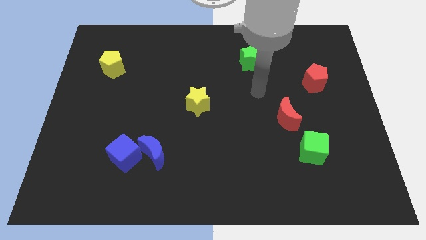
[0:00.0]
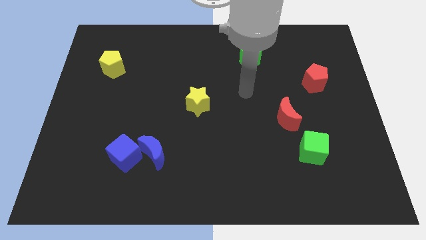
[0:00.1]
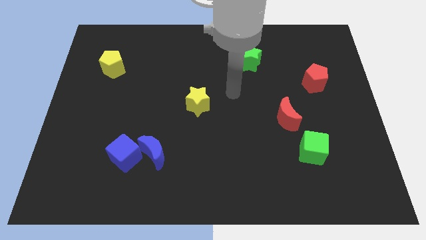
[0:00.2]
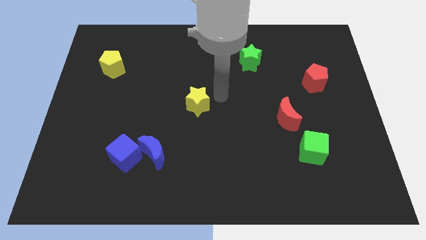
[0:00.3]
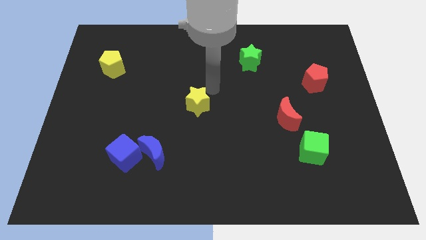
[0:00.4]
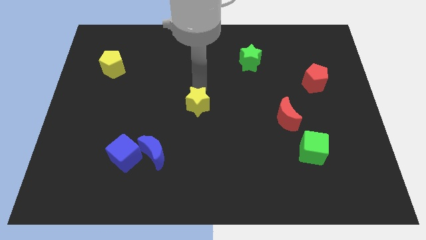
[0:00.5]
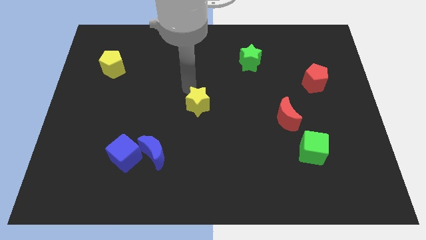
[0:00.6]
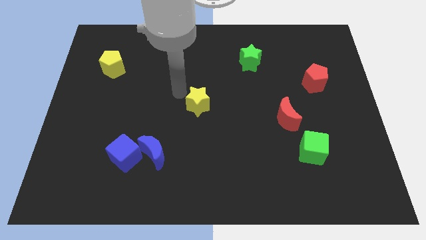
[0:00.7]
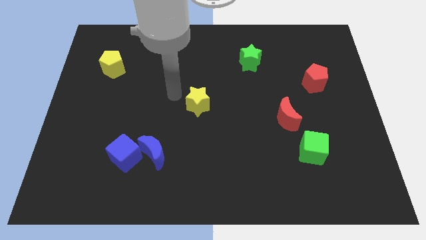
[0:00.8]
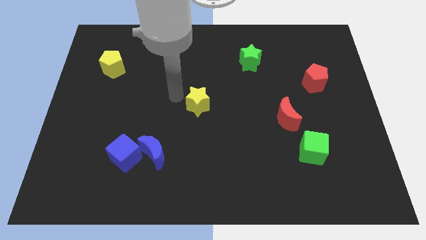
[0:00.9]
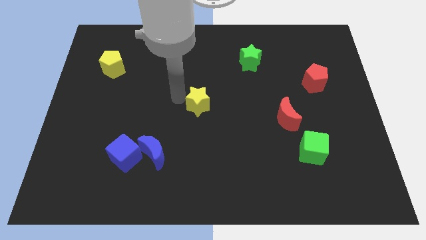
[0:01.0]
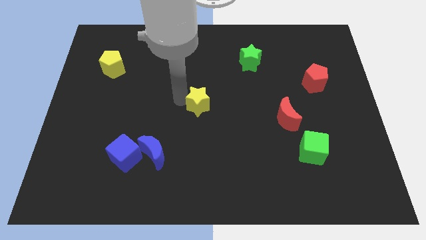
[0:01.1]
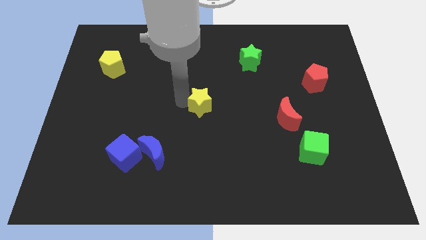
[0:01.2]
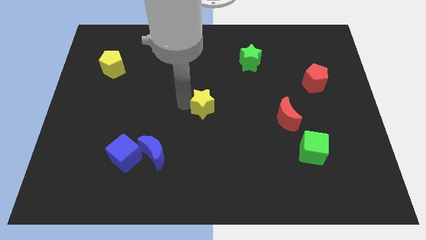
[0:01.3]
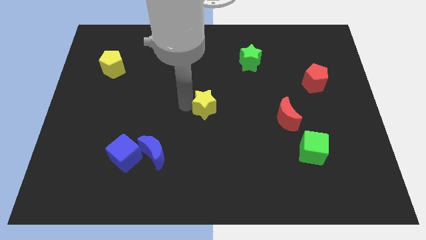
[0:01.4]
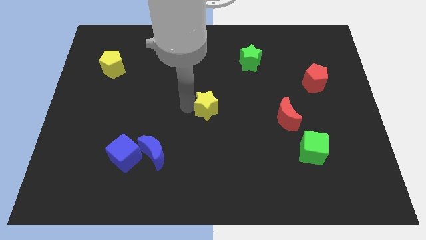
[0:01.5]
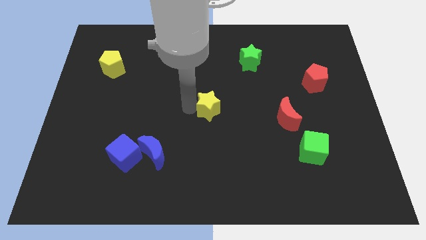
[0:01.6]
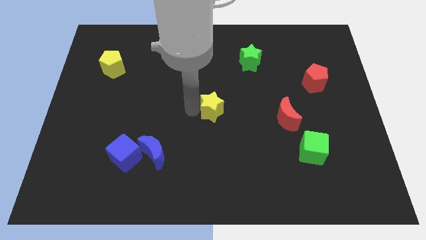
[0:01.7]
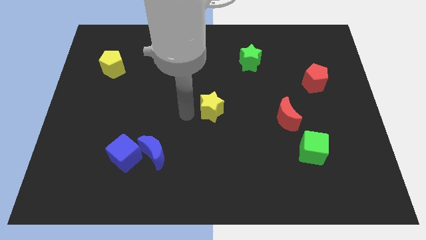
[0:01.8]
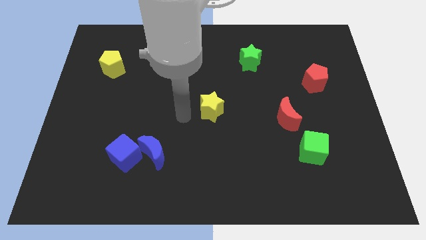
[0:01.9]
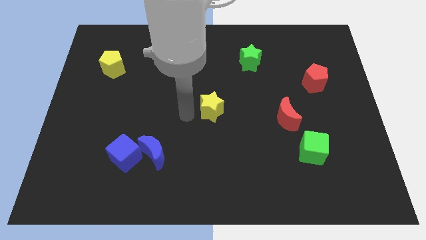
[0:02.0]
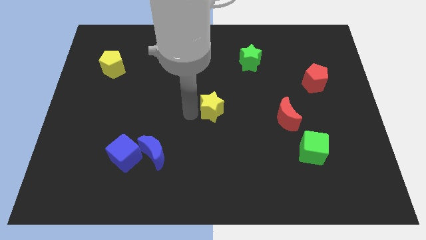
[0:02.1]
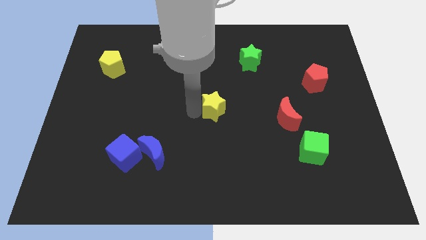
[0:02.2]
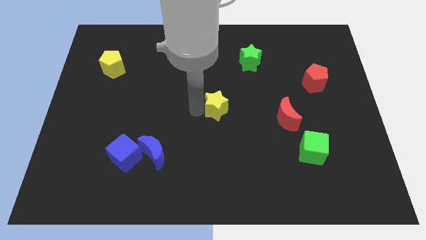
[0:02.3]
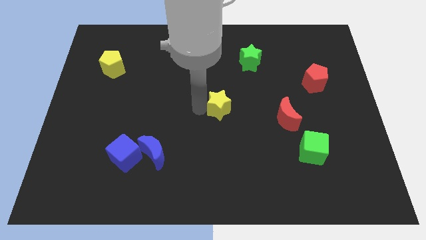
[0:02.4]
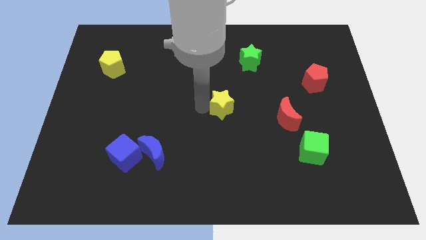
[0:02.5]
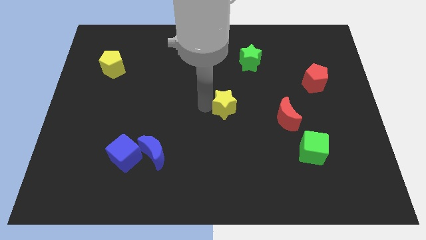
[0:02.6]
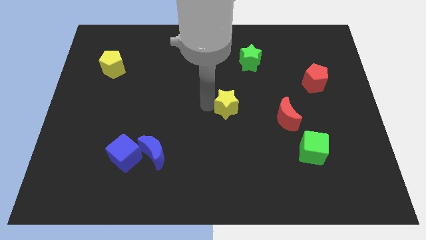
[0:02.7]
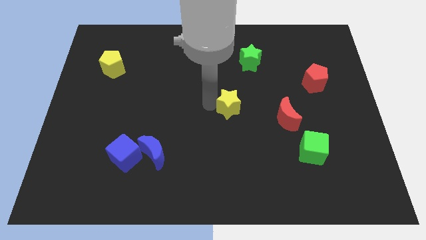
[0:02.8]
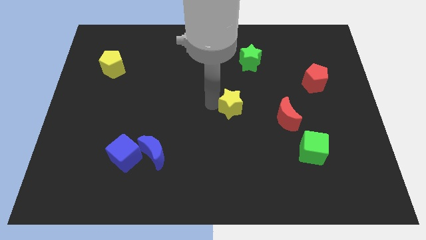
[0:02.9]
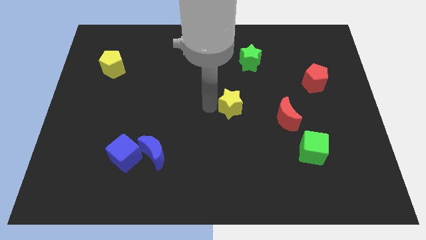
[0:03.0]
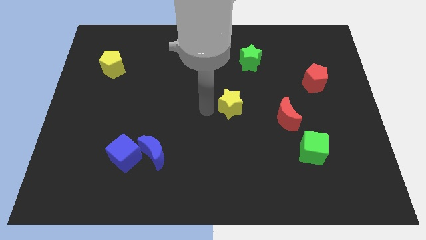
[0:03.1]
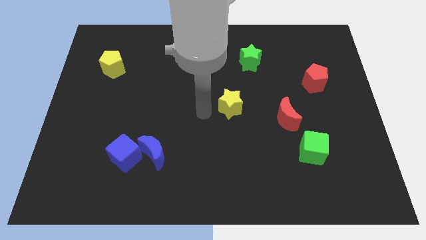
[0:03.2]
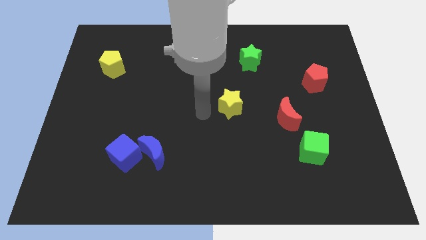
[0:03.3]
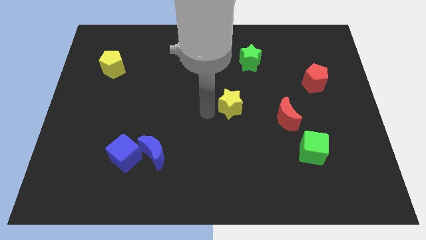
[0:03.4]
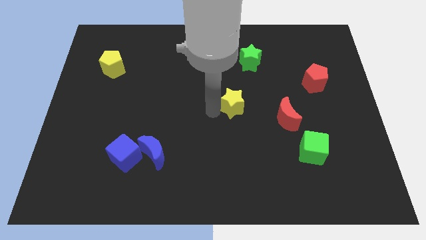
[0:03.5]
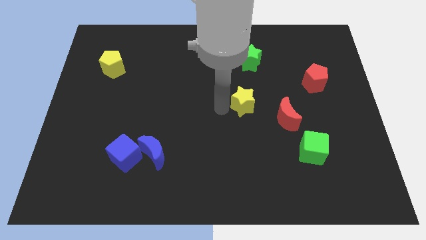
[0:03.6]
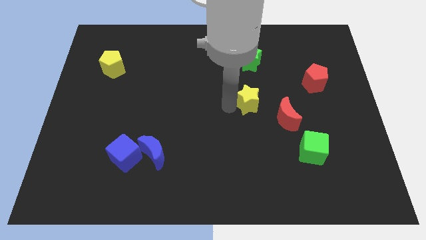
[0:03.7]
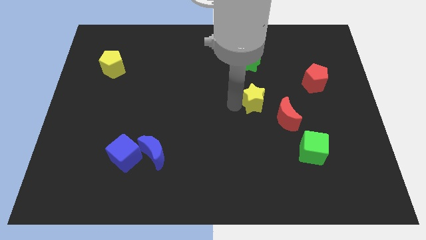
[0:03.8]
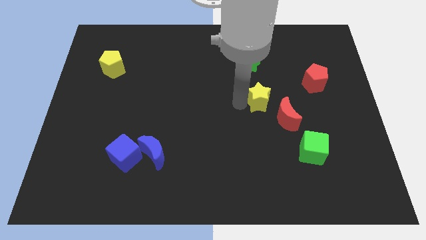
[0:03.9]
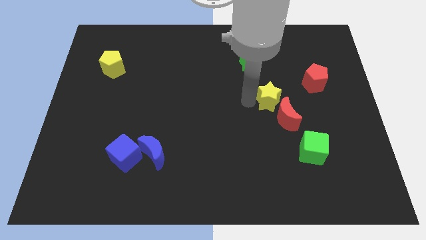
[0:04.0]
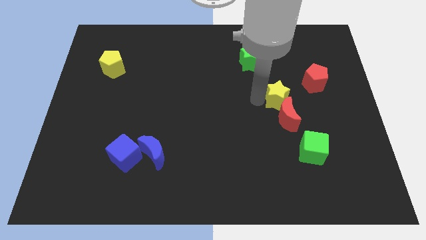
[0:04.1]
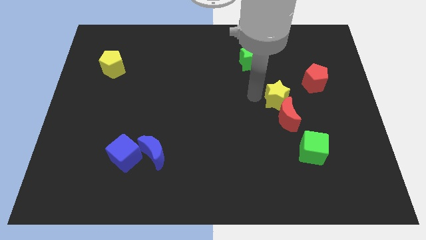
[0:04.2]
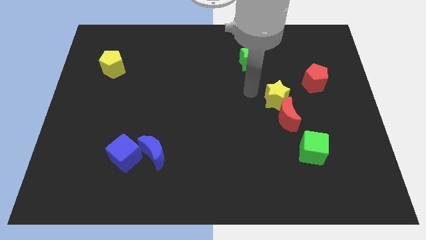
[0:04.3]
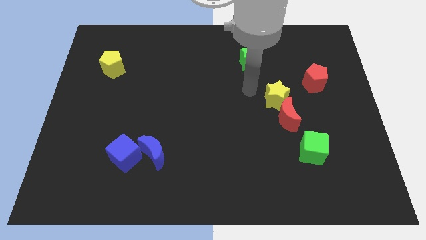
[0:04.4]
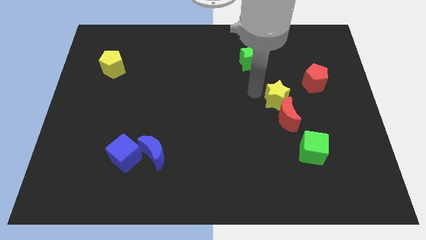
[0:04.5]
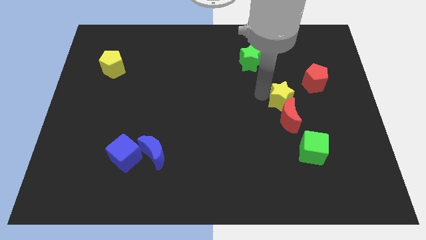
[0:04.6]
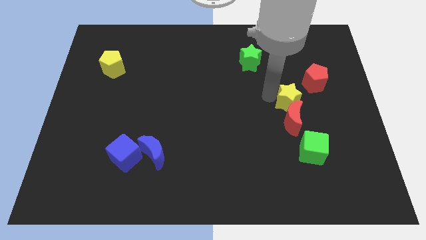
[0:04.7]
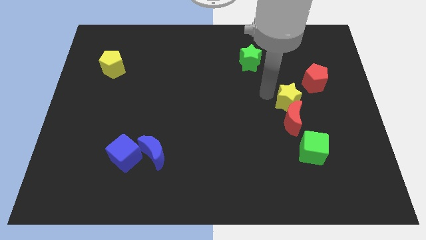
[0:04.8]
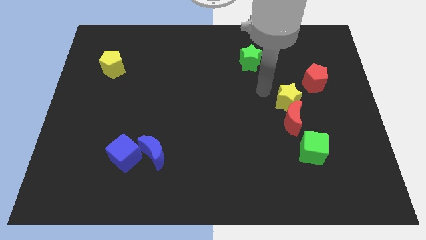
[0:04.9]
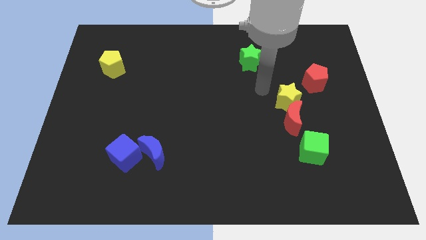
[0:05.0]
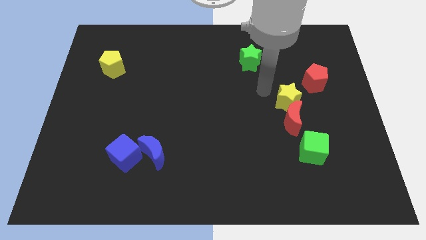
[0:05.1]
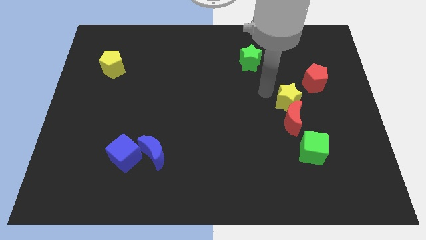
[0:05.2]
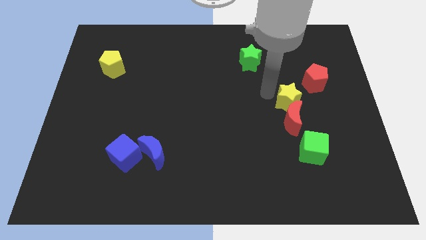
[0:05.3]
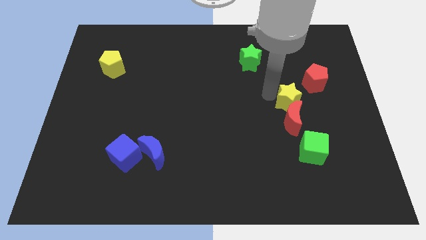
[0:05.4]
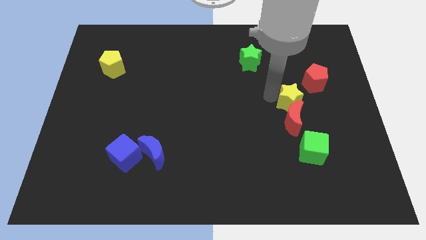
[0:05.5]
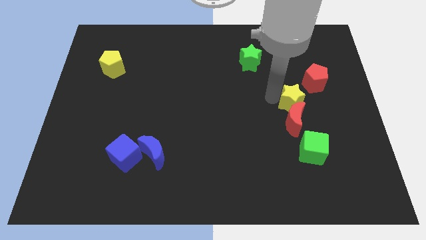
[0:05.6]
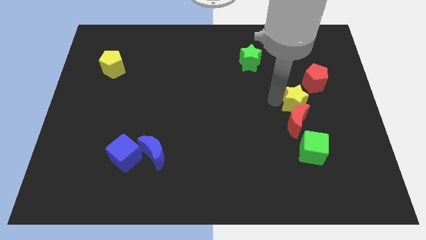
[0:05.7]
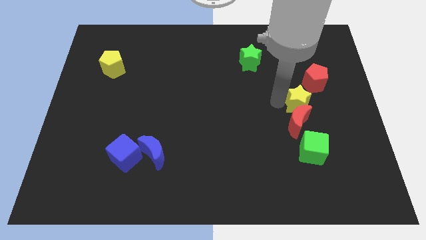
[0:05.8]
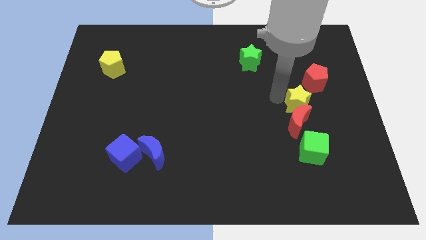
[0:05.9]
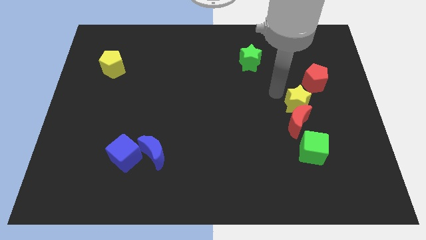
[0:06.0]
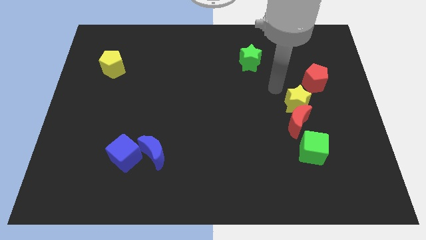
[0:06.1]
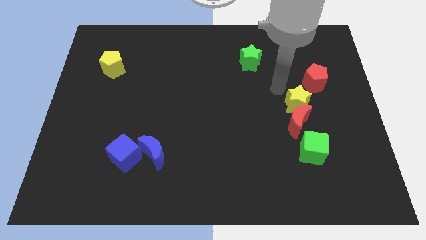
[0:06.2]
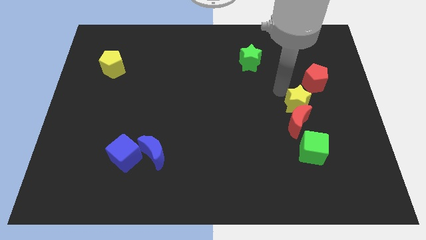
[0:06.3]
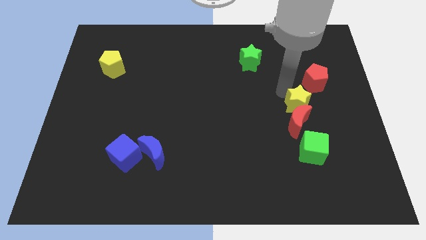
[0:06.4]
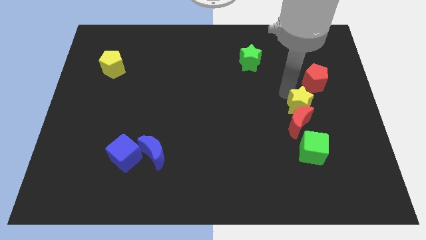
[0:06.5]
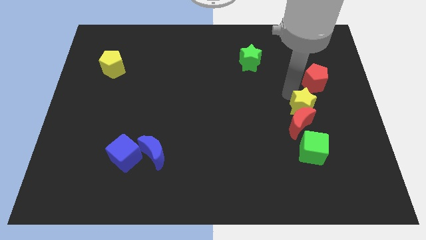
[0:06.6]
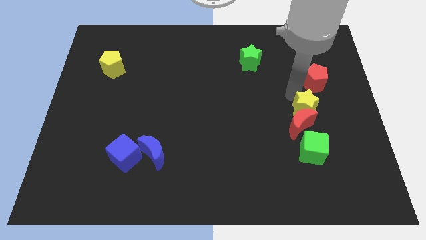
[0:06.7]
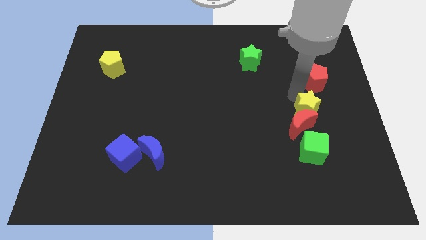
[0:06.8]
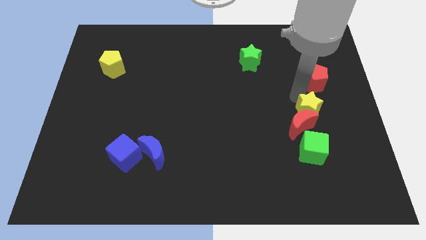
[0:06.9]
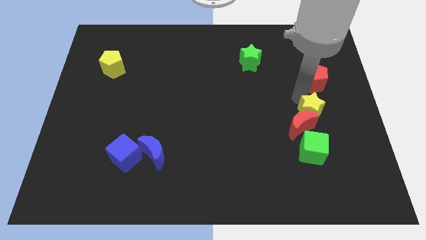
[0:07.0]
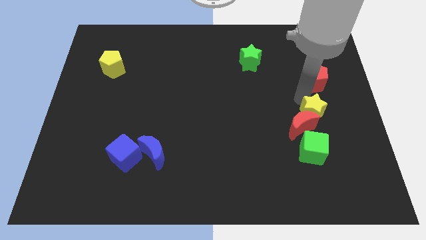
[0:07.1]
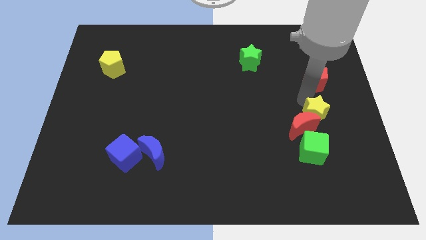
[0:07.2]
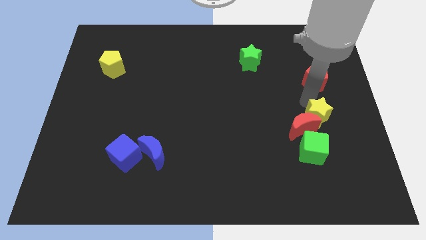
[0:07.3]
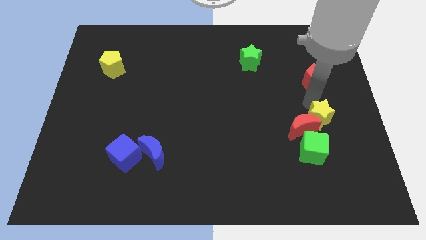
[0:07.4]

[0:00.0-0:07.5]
move the yellow star to the top right of the green cube
